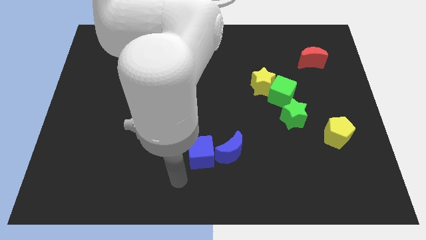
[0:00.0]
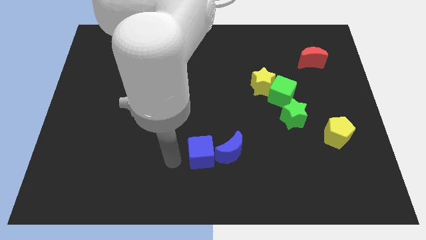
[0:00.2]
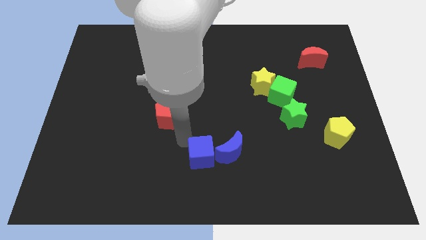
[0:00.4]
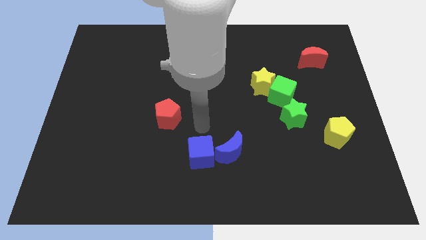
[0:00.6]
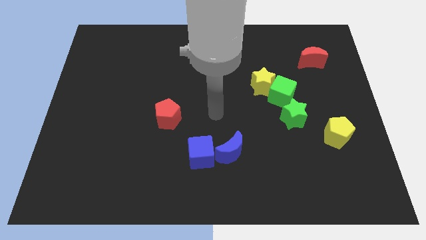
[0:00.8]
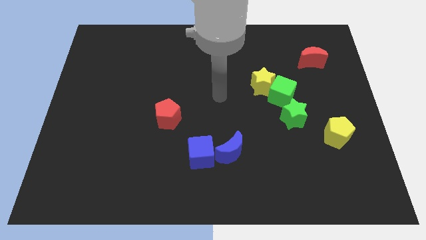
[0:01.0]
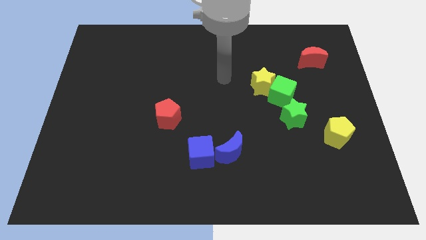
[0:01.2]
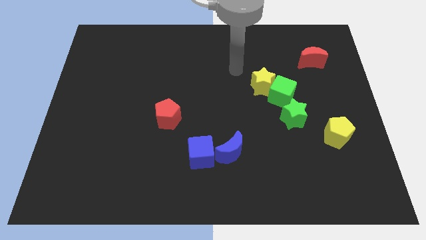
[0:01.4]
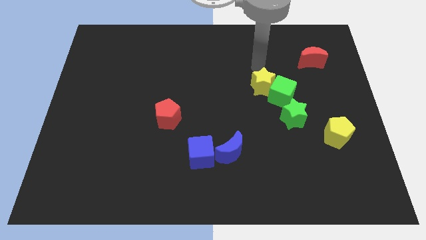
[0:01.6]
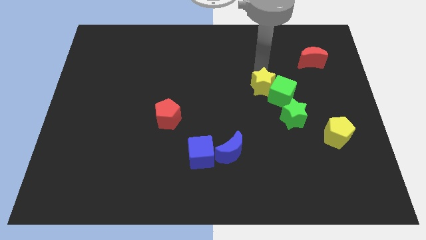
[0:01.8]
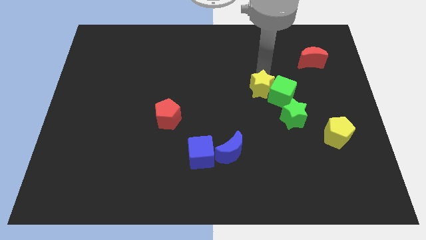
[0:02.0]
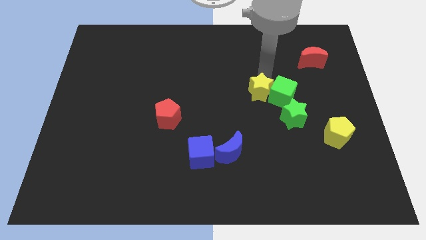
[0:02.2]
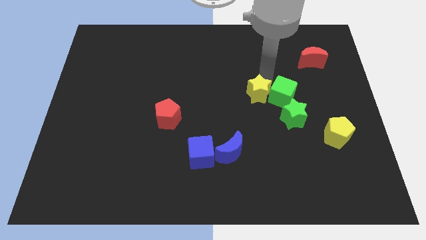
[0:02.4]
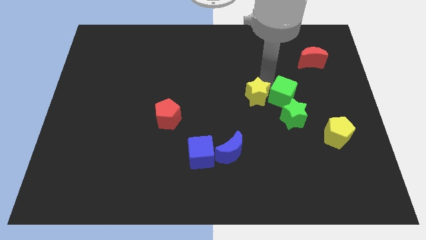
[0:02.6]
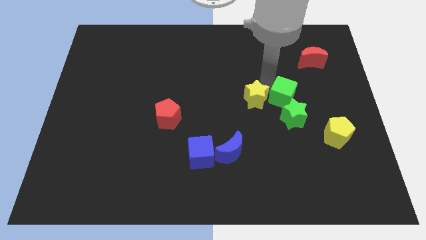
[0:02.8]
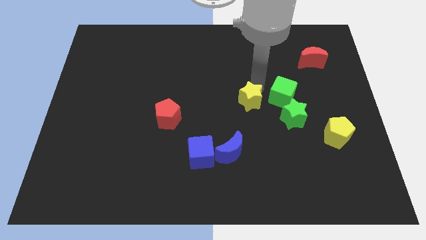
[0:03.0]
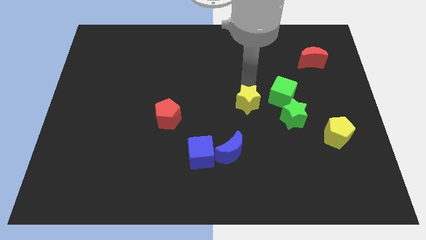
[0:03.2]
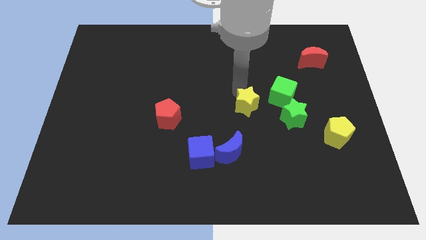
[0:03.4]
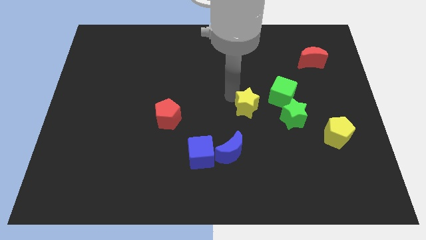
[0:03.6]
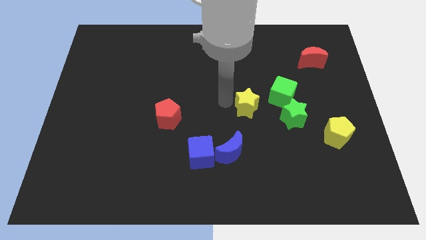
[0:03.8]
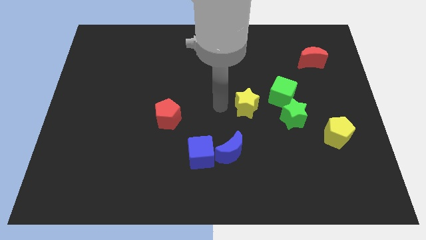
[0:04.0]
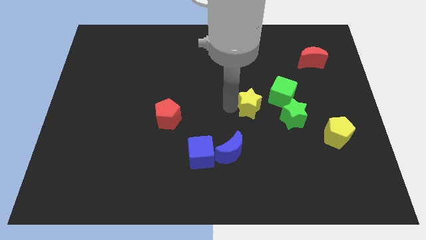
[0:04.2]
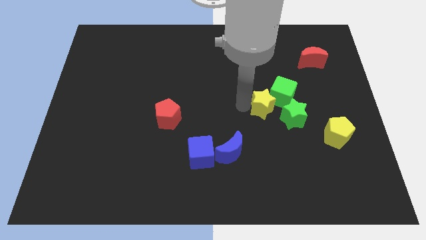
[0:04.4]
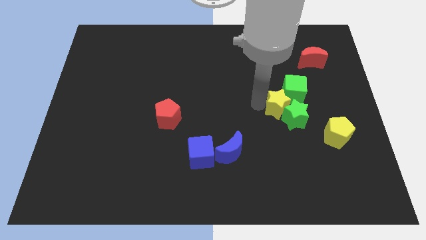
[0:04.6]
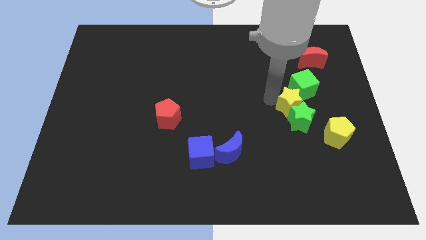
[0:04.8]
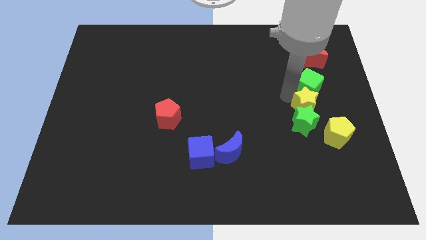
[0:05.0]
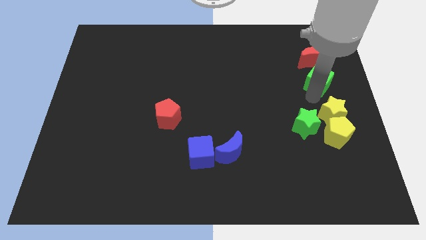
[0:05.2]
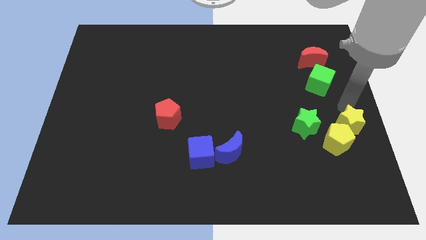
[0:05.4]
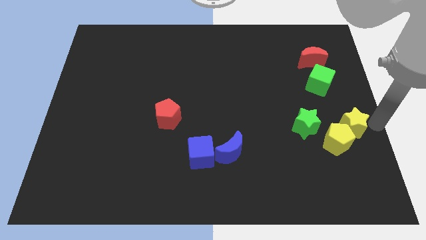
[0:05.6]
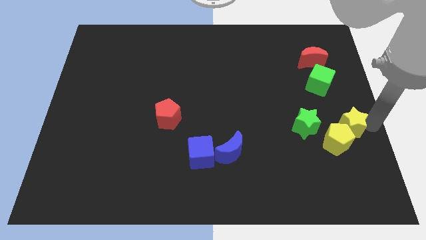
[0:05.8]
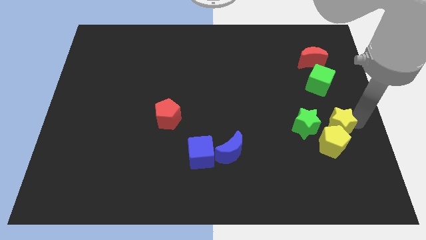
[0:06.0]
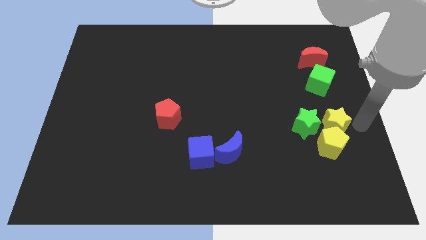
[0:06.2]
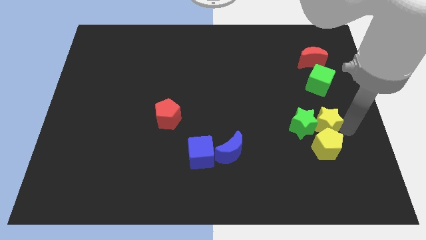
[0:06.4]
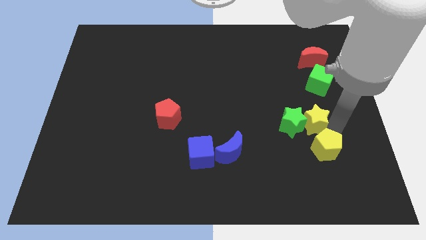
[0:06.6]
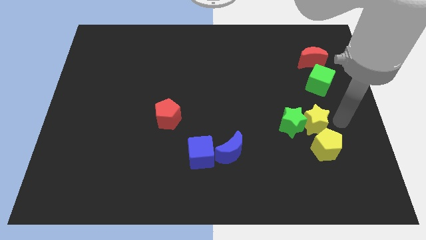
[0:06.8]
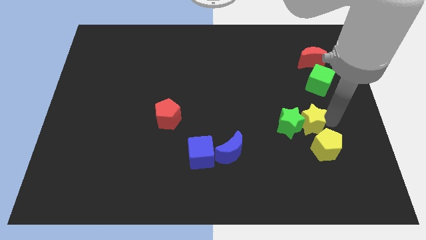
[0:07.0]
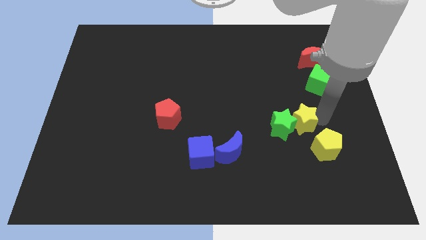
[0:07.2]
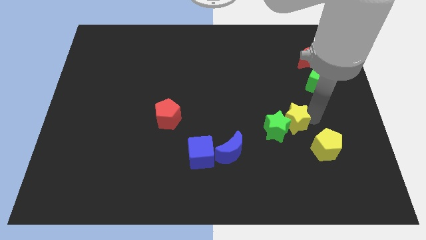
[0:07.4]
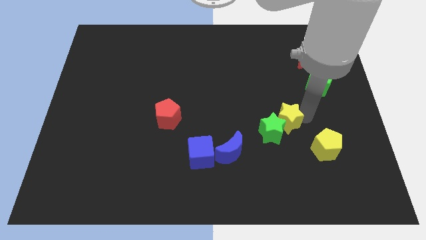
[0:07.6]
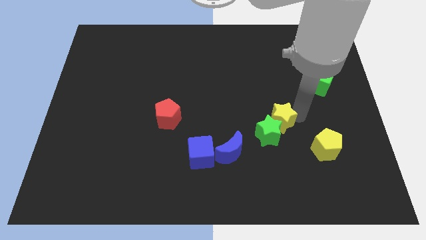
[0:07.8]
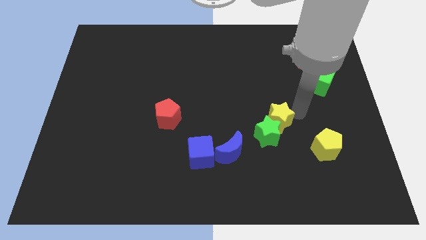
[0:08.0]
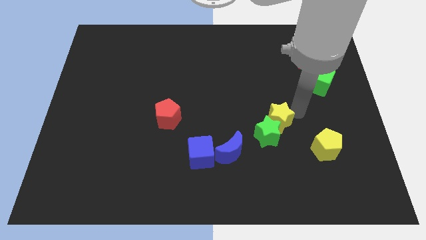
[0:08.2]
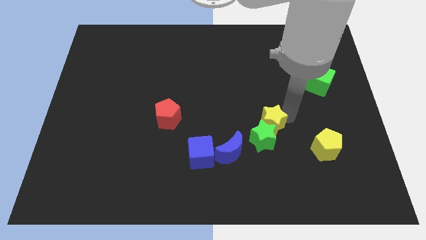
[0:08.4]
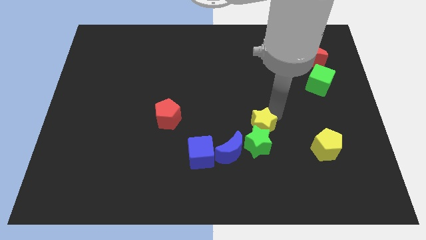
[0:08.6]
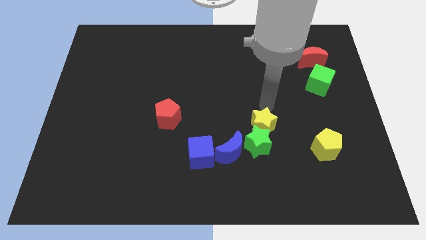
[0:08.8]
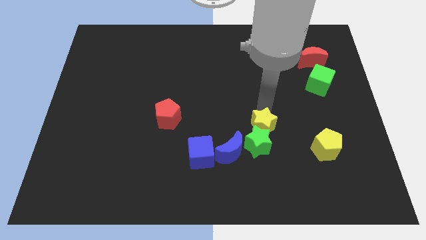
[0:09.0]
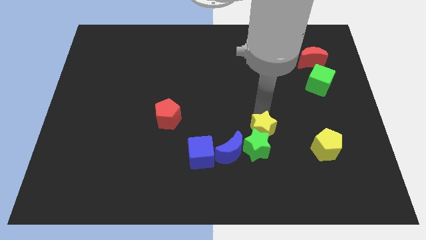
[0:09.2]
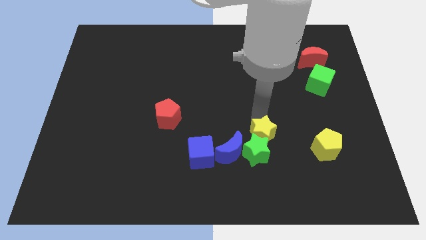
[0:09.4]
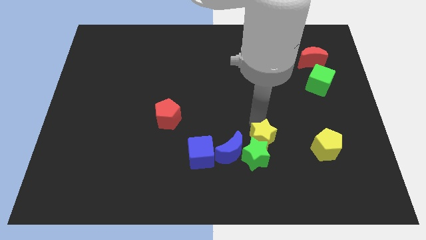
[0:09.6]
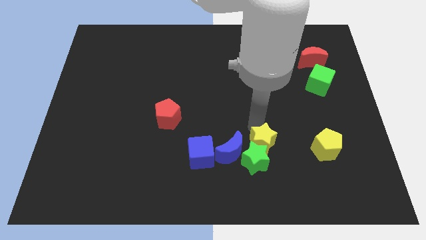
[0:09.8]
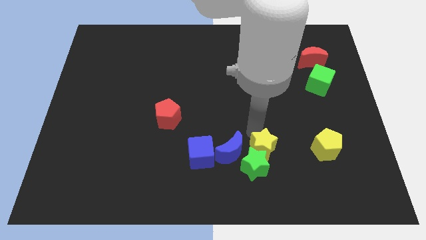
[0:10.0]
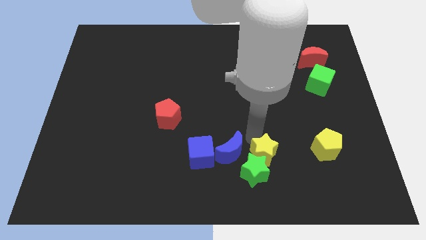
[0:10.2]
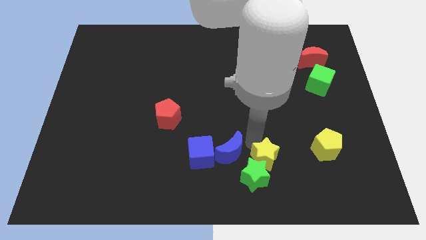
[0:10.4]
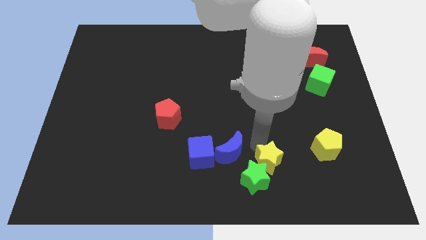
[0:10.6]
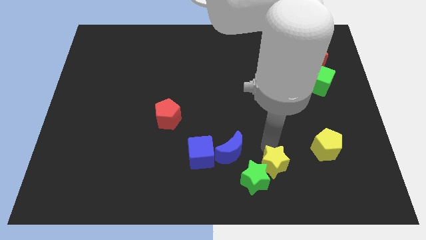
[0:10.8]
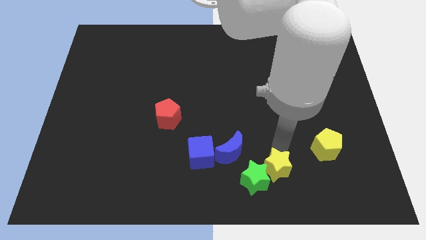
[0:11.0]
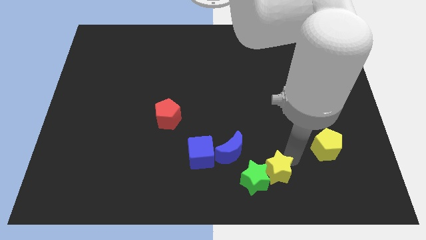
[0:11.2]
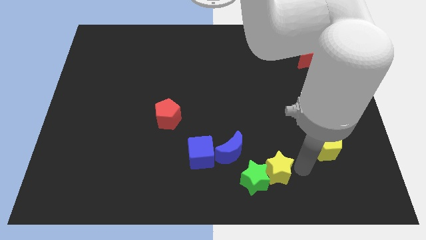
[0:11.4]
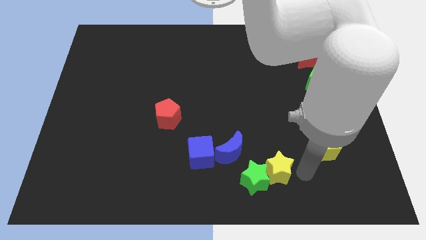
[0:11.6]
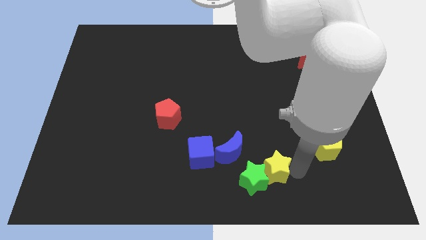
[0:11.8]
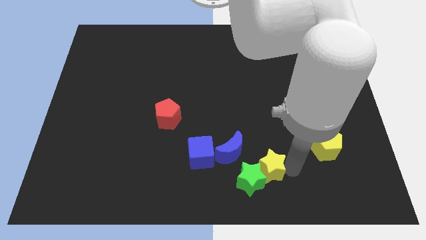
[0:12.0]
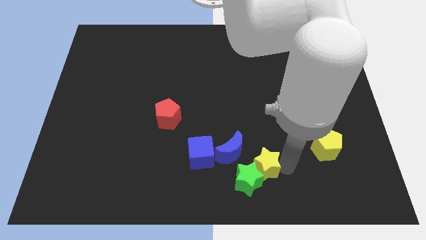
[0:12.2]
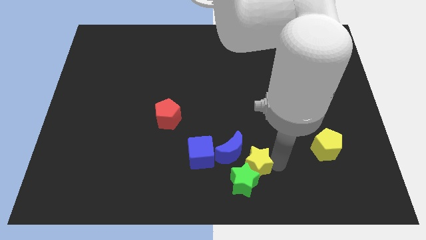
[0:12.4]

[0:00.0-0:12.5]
slide the yellow star to the bottom side

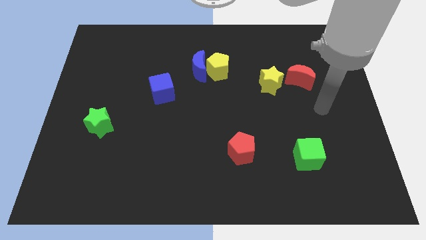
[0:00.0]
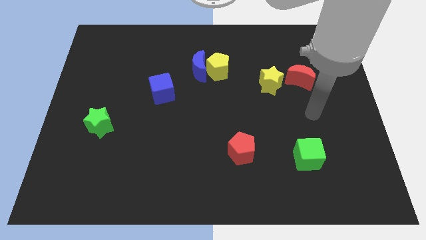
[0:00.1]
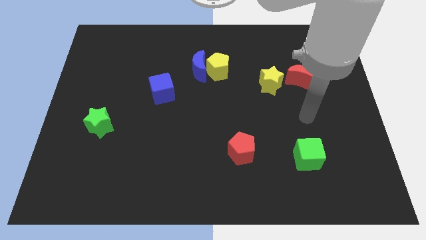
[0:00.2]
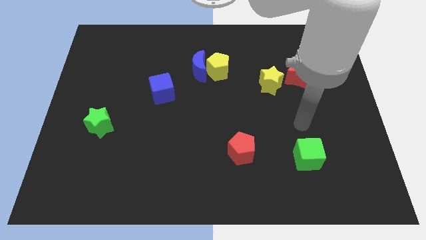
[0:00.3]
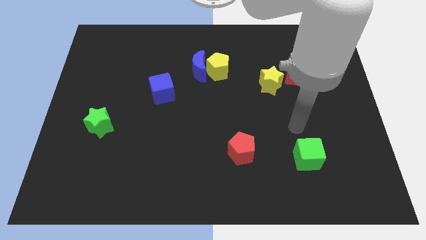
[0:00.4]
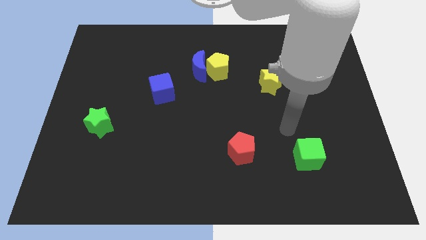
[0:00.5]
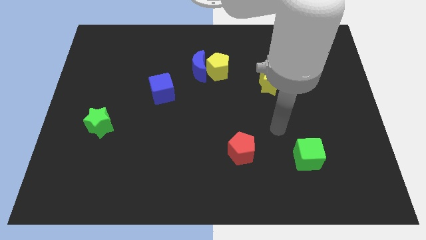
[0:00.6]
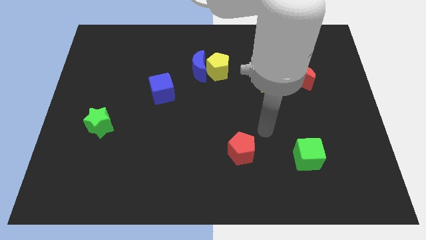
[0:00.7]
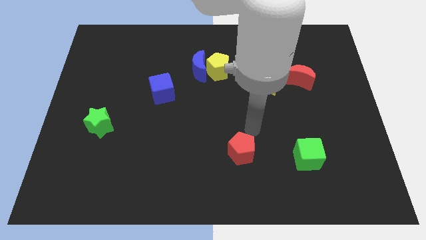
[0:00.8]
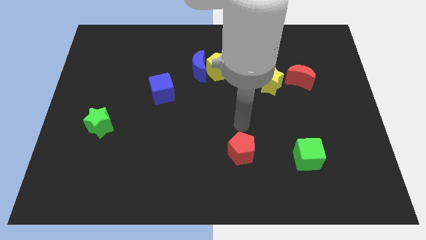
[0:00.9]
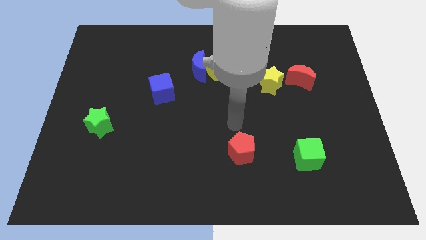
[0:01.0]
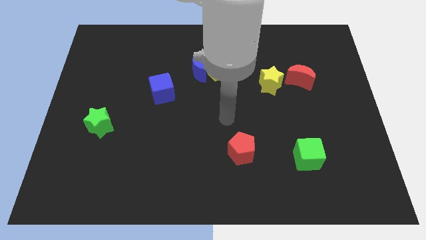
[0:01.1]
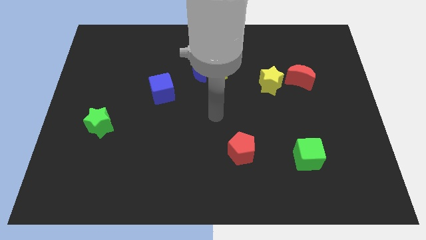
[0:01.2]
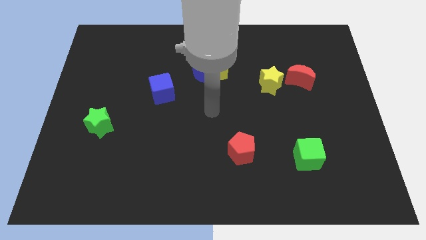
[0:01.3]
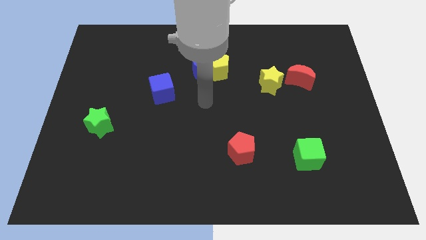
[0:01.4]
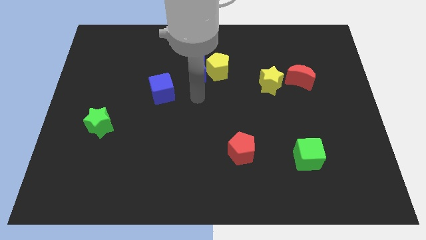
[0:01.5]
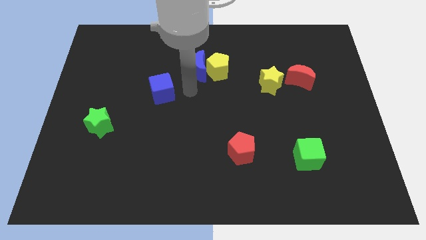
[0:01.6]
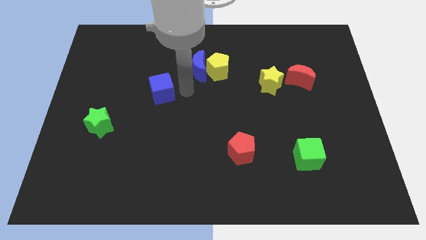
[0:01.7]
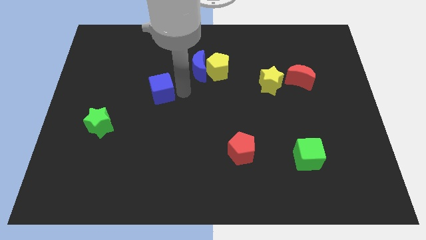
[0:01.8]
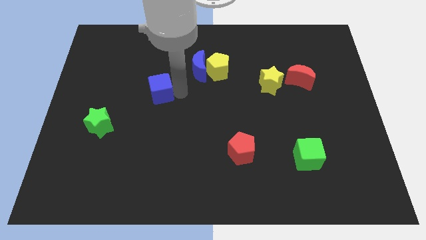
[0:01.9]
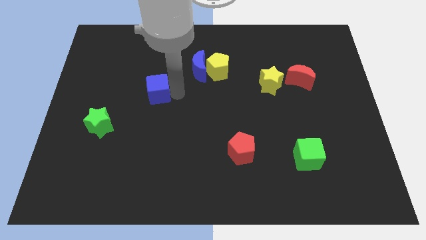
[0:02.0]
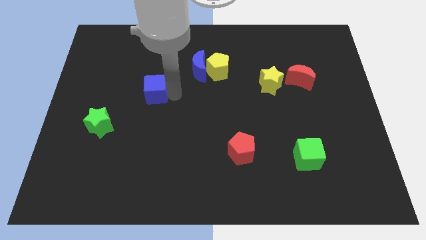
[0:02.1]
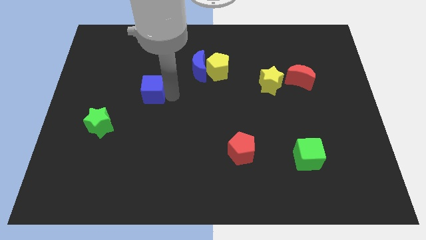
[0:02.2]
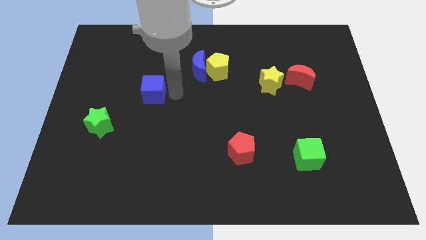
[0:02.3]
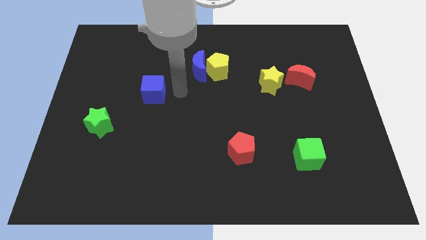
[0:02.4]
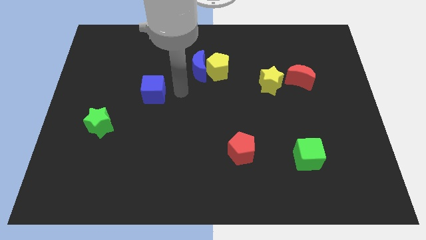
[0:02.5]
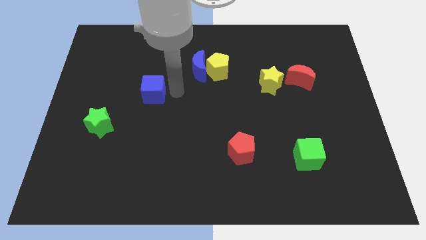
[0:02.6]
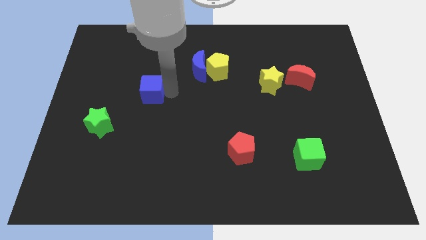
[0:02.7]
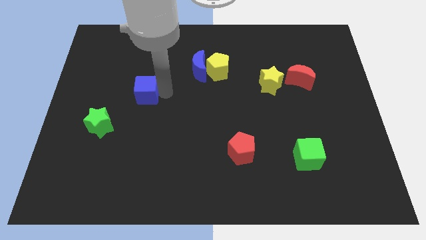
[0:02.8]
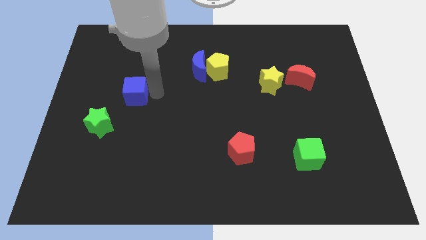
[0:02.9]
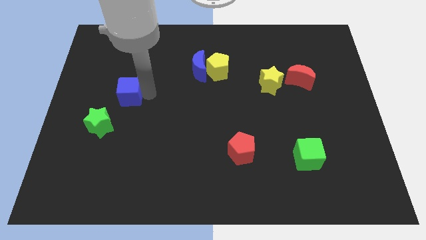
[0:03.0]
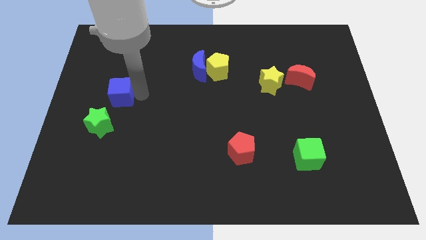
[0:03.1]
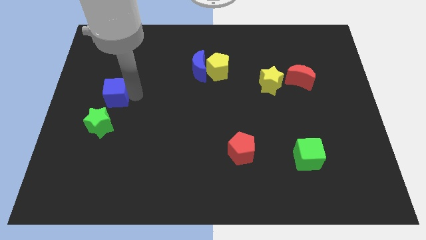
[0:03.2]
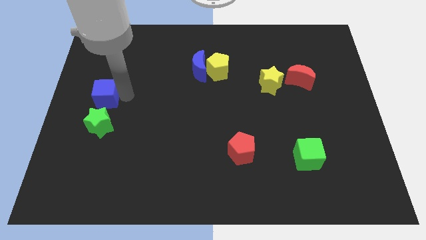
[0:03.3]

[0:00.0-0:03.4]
move the blue cube to the left side of the board
